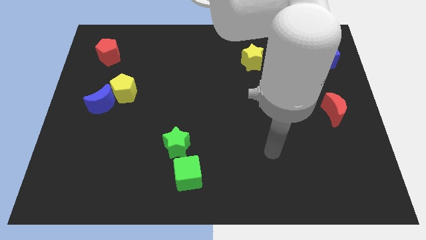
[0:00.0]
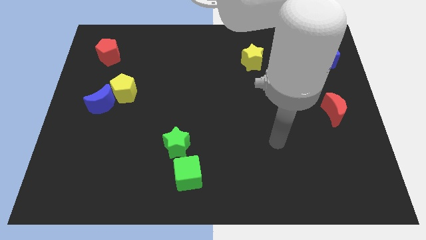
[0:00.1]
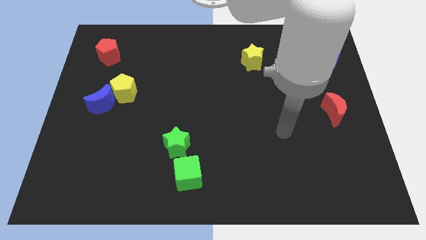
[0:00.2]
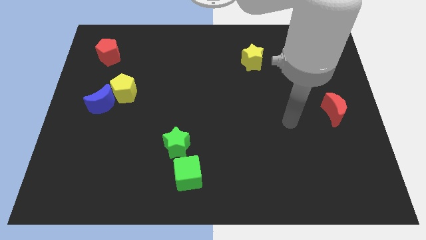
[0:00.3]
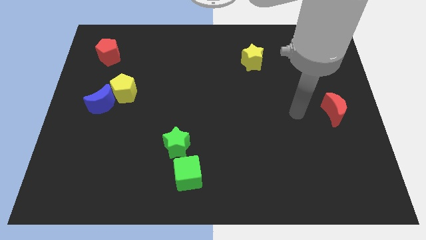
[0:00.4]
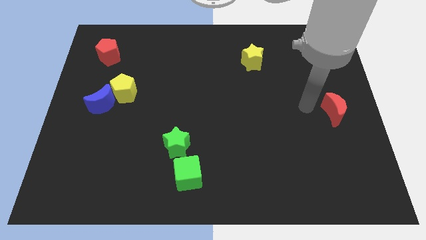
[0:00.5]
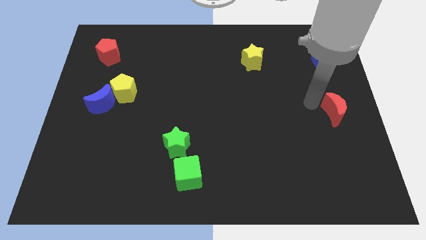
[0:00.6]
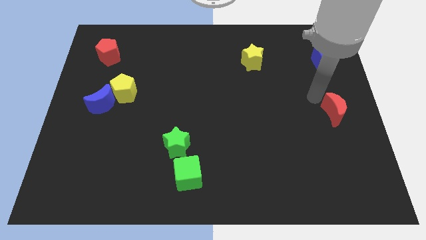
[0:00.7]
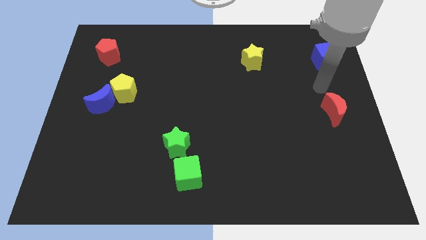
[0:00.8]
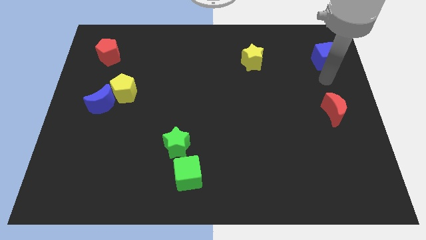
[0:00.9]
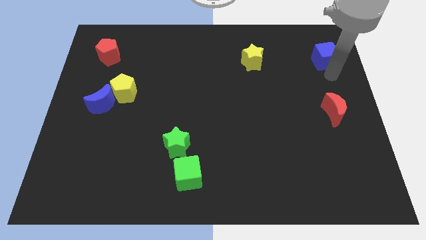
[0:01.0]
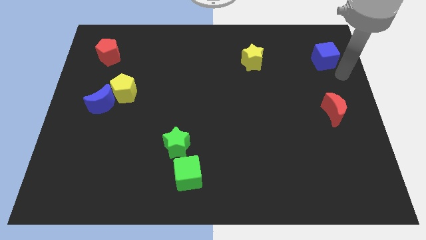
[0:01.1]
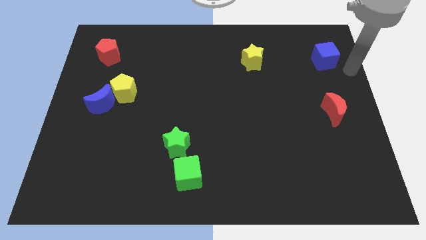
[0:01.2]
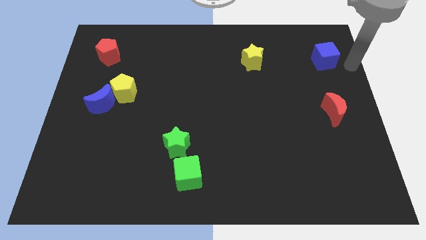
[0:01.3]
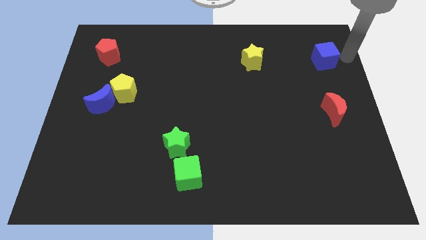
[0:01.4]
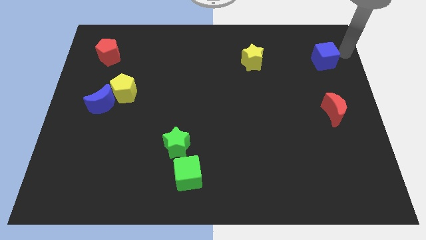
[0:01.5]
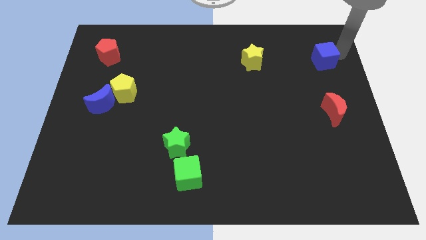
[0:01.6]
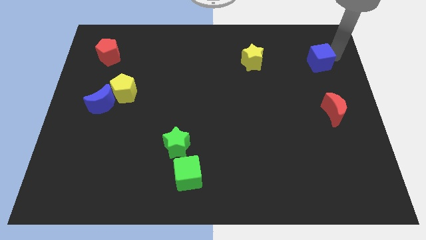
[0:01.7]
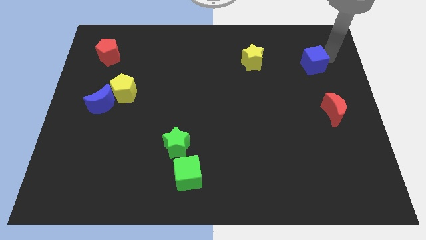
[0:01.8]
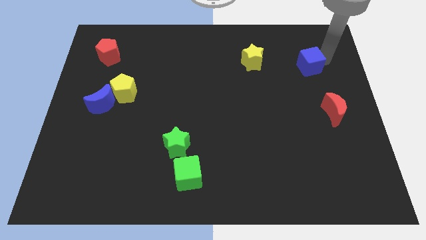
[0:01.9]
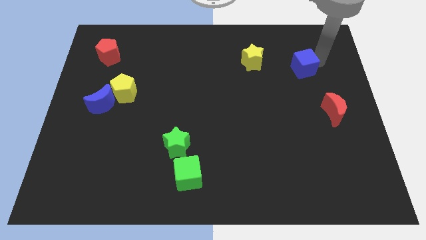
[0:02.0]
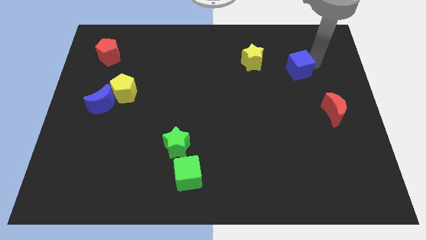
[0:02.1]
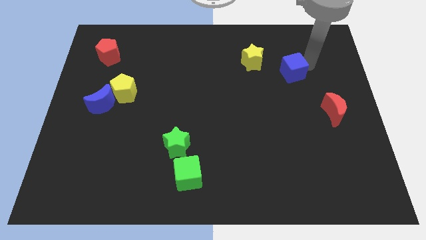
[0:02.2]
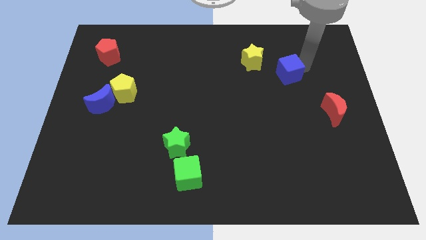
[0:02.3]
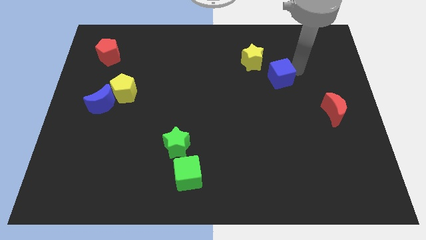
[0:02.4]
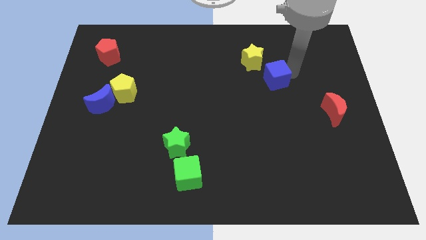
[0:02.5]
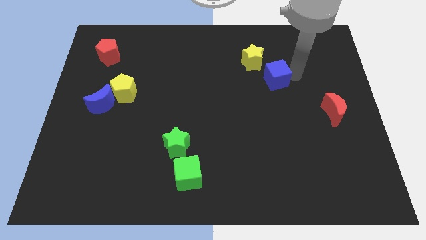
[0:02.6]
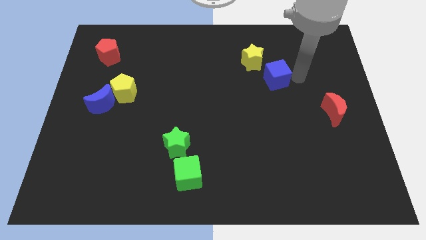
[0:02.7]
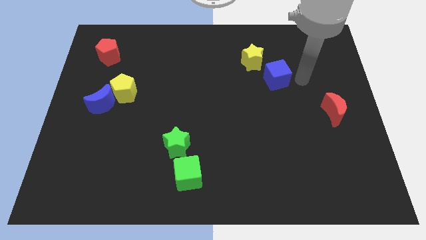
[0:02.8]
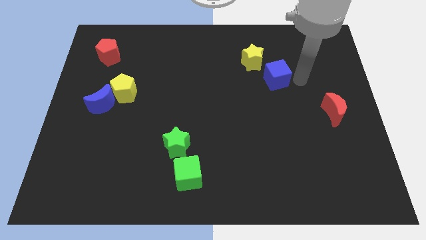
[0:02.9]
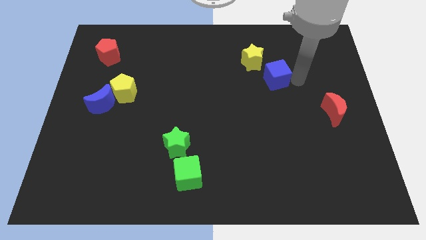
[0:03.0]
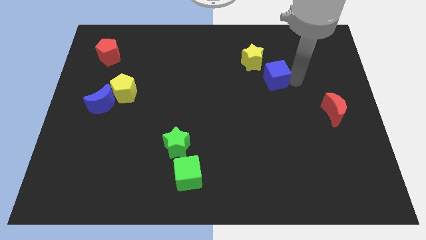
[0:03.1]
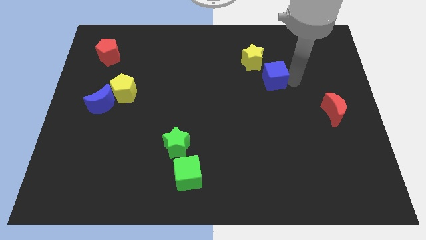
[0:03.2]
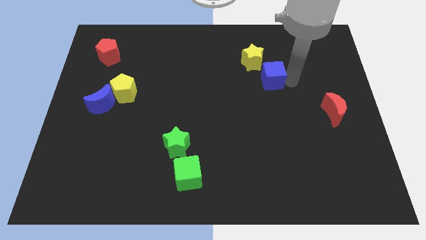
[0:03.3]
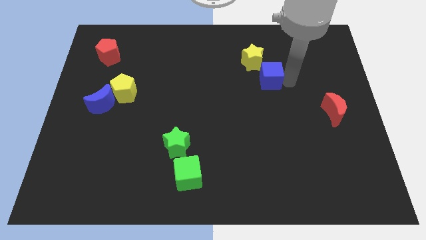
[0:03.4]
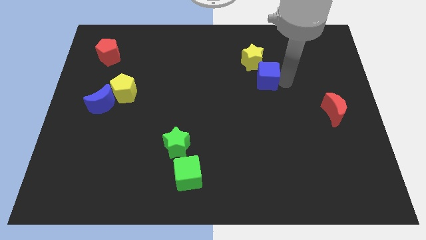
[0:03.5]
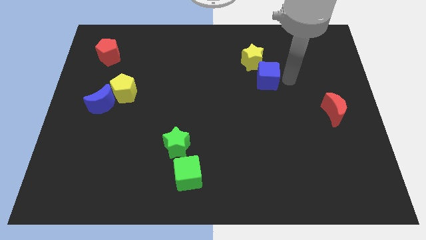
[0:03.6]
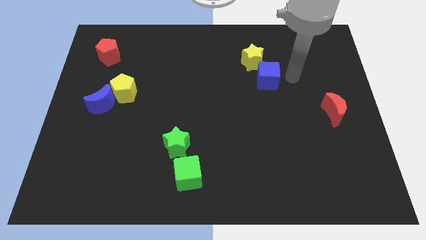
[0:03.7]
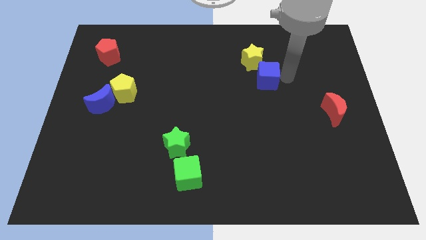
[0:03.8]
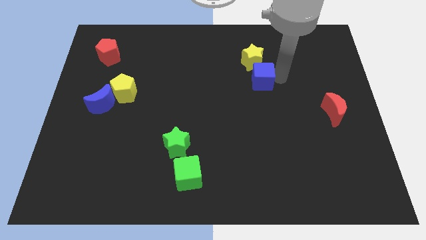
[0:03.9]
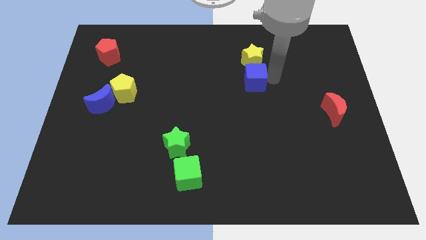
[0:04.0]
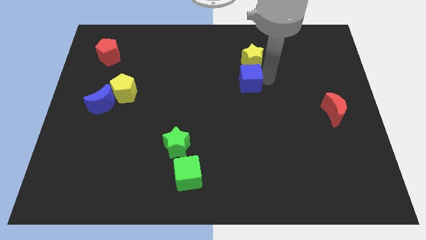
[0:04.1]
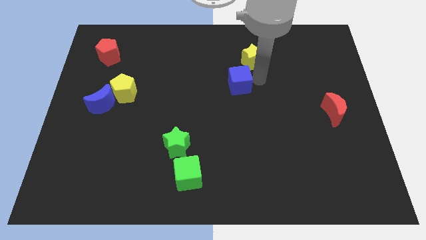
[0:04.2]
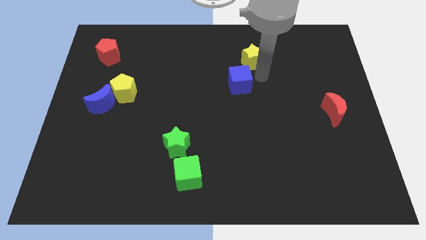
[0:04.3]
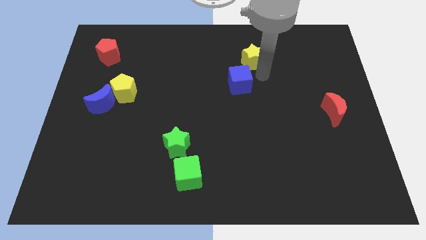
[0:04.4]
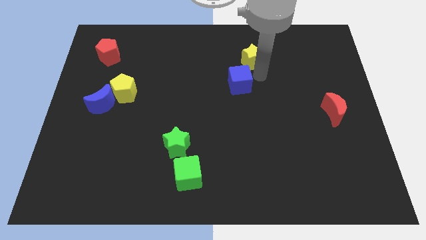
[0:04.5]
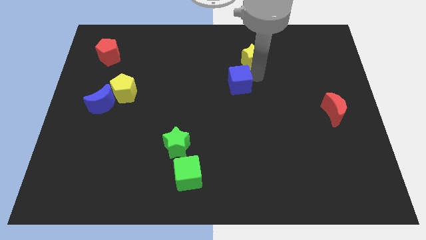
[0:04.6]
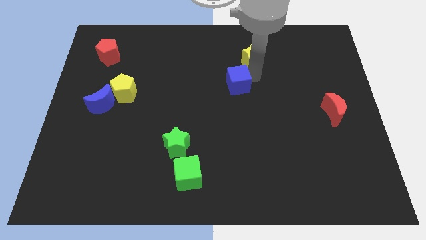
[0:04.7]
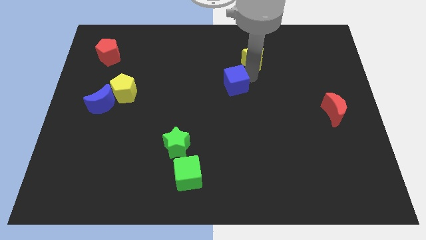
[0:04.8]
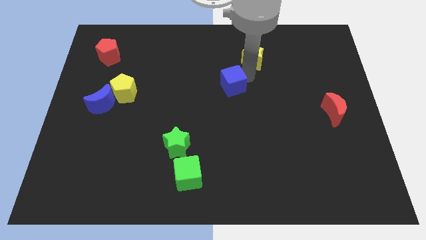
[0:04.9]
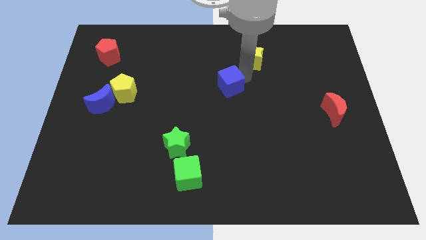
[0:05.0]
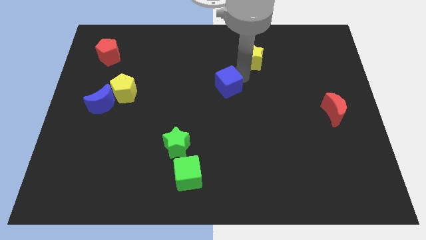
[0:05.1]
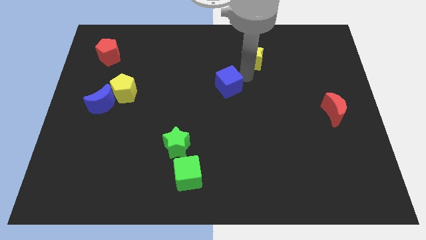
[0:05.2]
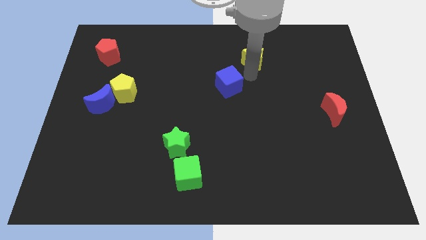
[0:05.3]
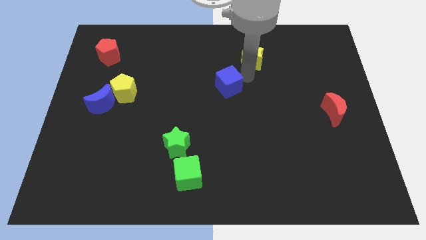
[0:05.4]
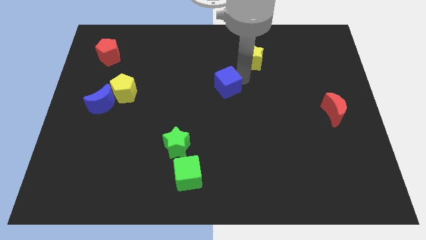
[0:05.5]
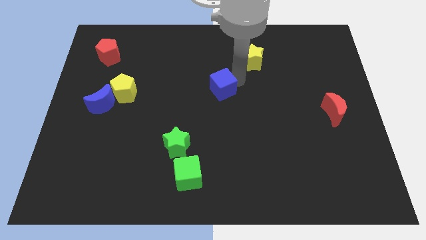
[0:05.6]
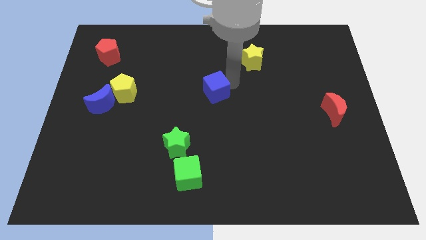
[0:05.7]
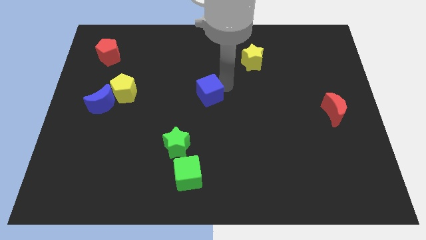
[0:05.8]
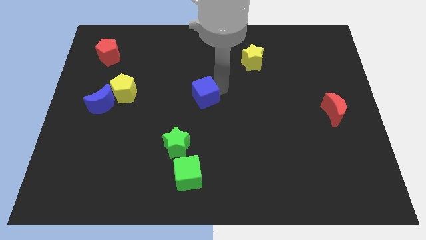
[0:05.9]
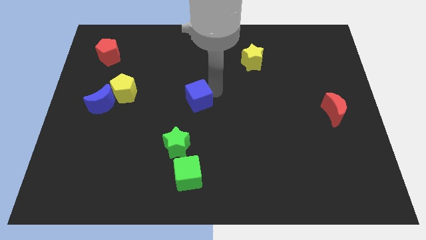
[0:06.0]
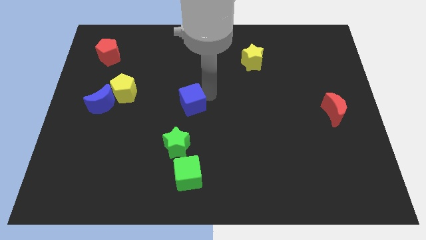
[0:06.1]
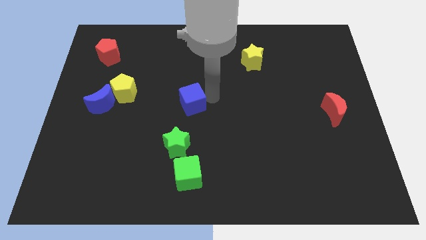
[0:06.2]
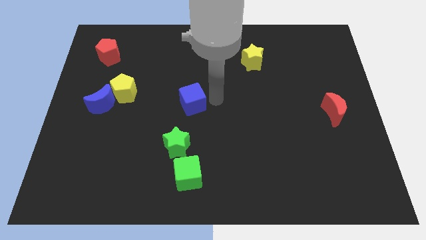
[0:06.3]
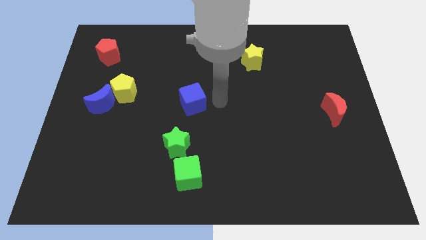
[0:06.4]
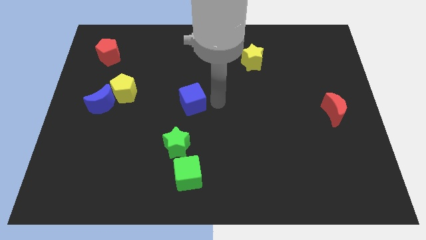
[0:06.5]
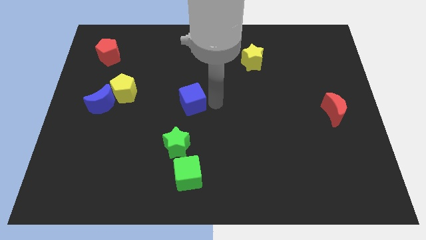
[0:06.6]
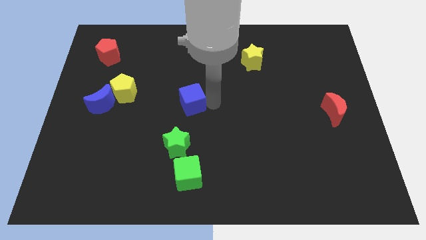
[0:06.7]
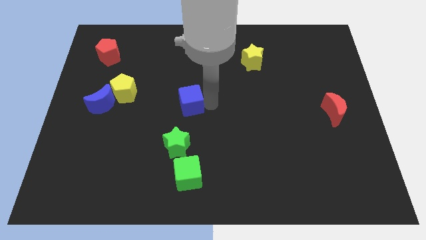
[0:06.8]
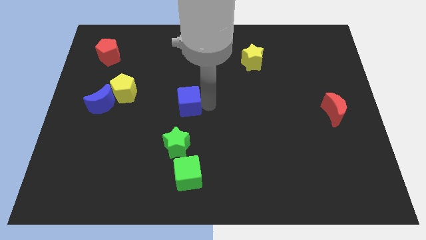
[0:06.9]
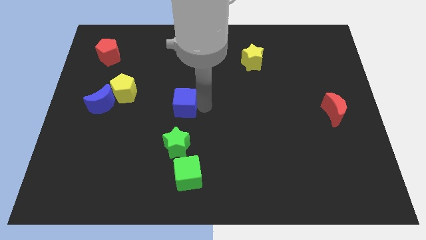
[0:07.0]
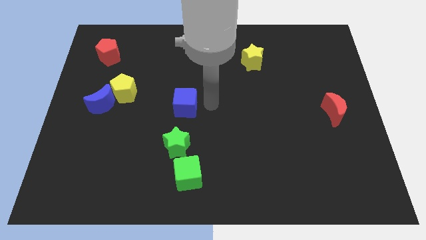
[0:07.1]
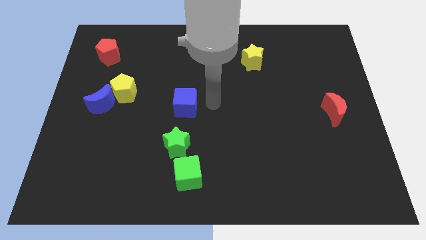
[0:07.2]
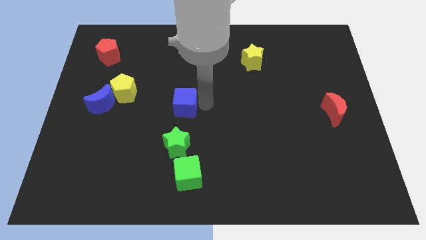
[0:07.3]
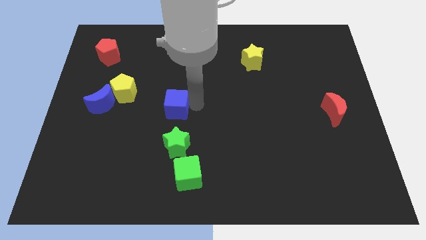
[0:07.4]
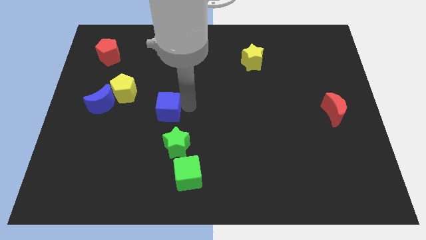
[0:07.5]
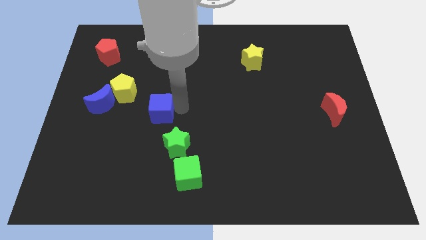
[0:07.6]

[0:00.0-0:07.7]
put the blue cube diagonally down and to the right of the yellow pentagon
